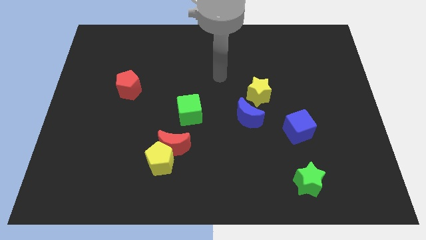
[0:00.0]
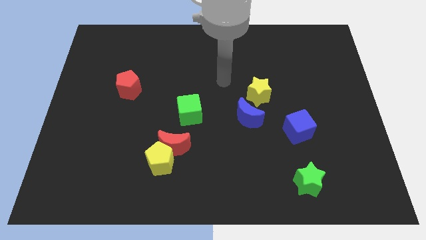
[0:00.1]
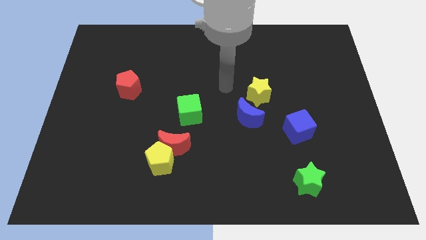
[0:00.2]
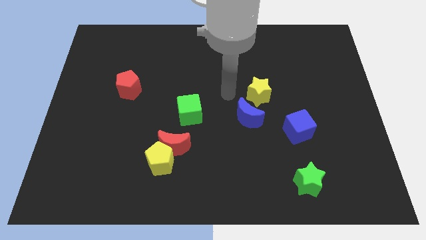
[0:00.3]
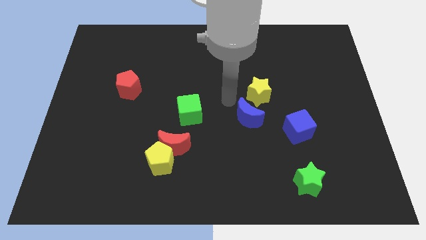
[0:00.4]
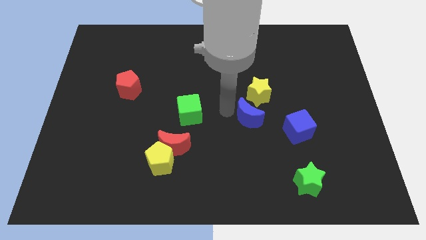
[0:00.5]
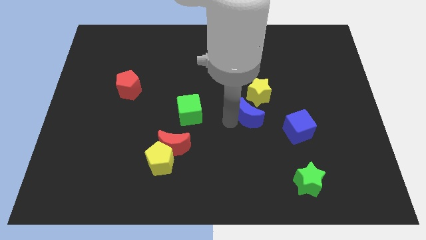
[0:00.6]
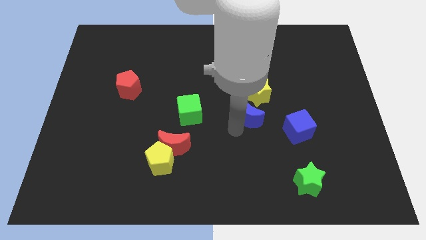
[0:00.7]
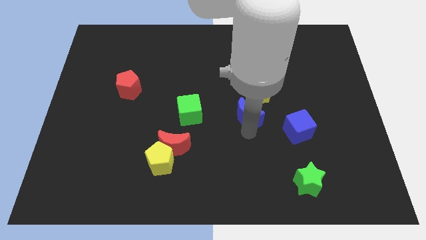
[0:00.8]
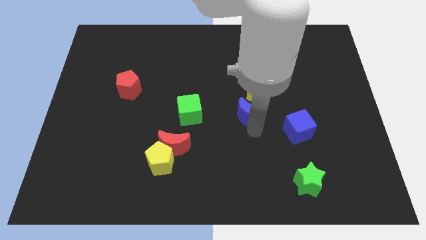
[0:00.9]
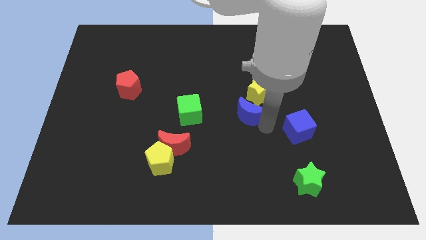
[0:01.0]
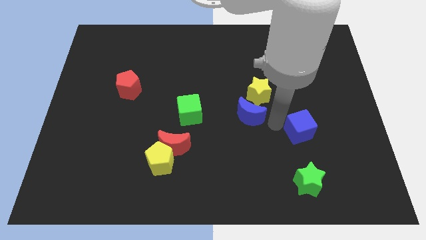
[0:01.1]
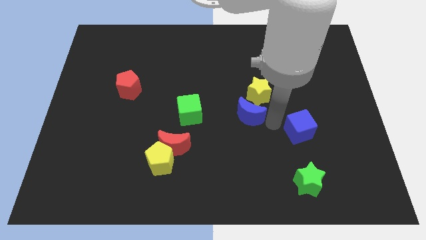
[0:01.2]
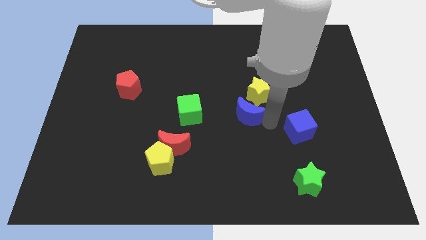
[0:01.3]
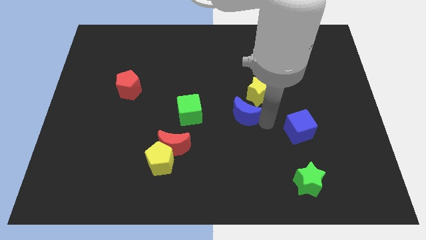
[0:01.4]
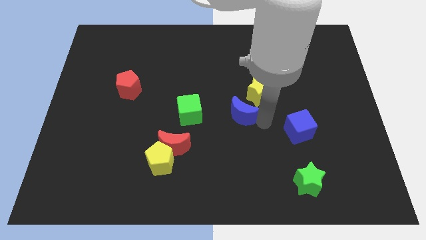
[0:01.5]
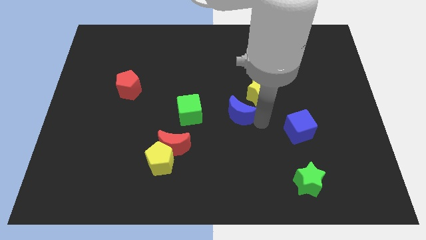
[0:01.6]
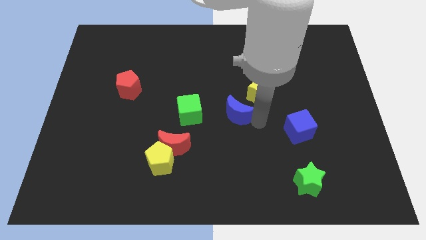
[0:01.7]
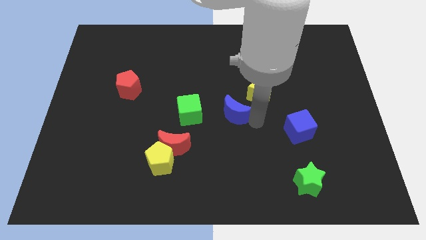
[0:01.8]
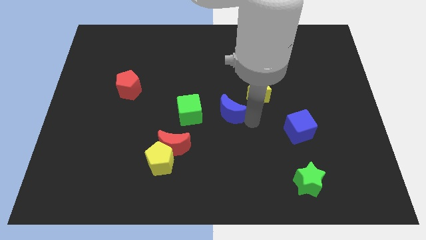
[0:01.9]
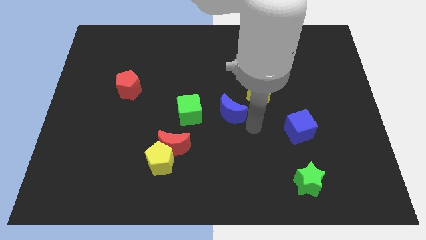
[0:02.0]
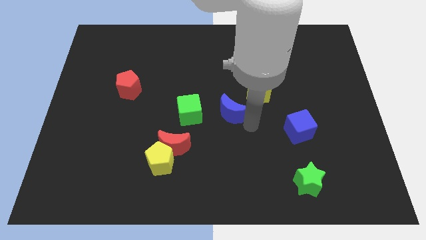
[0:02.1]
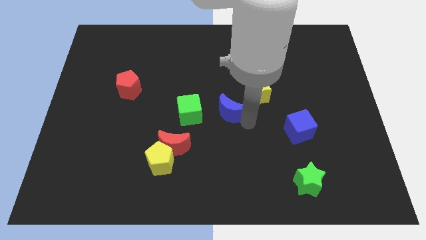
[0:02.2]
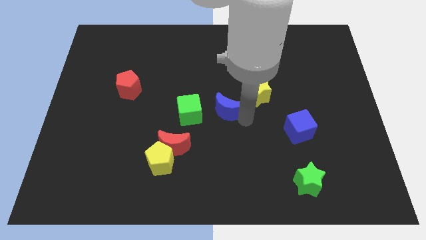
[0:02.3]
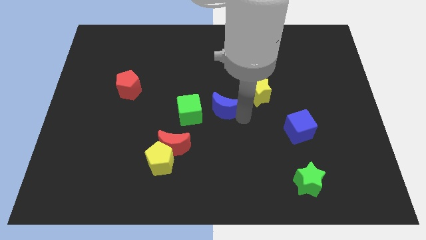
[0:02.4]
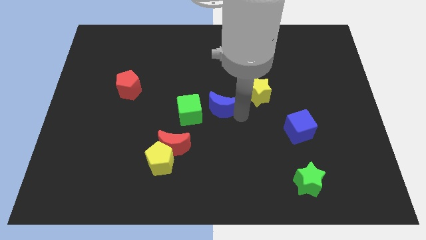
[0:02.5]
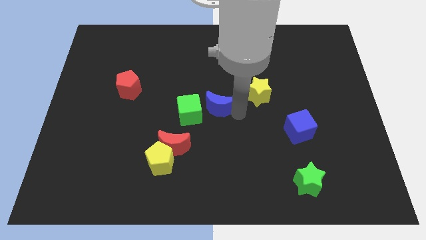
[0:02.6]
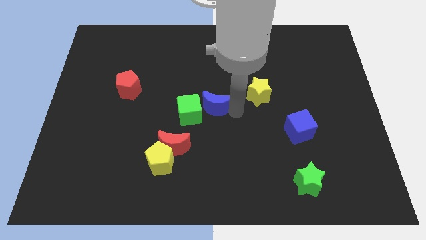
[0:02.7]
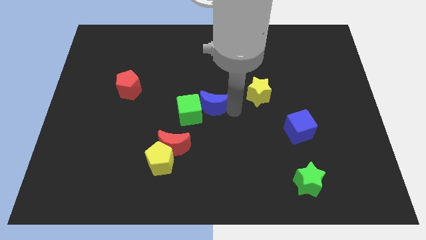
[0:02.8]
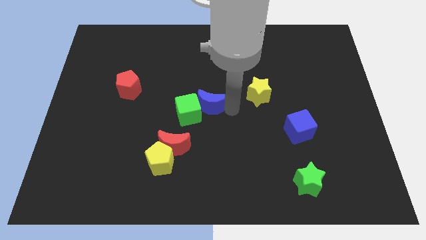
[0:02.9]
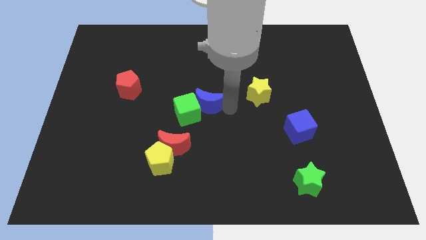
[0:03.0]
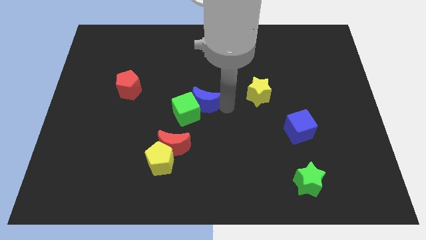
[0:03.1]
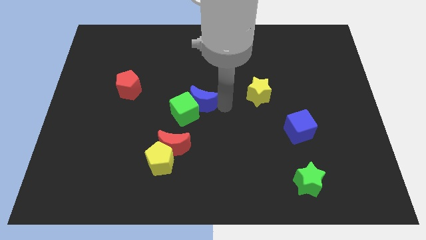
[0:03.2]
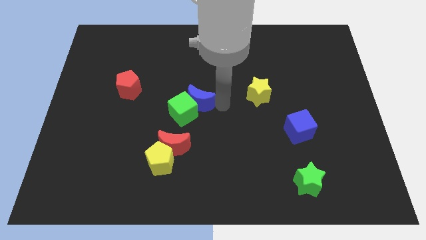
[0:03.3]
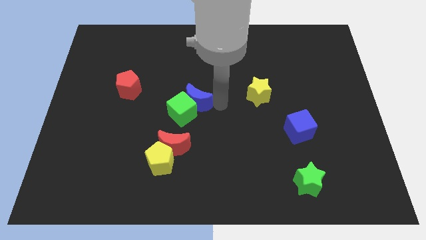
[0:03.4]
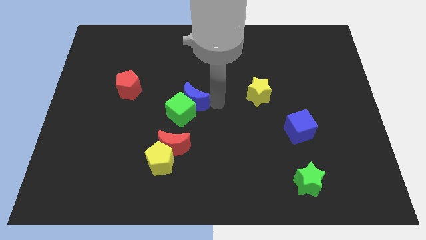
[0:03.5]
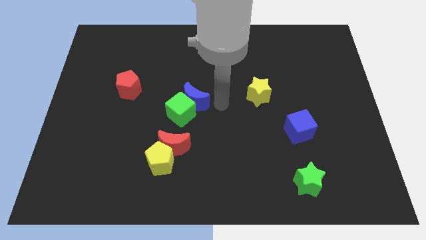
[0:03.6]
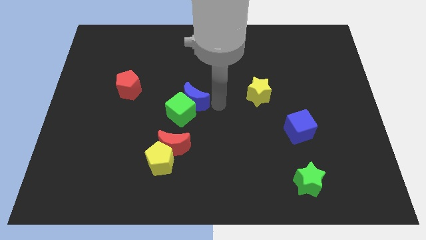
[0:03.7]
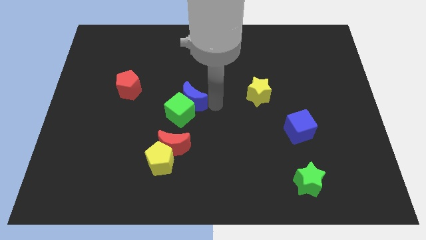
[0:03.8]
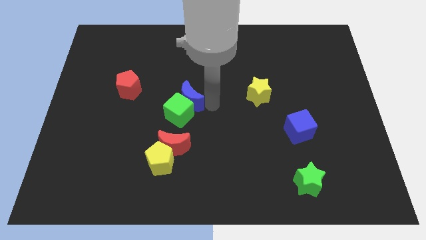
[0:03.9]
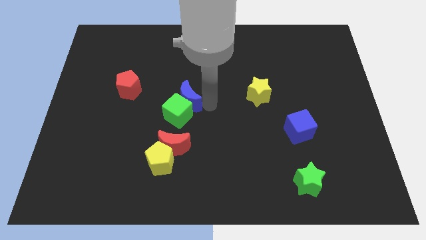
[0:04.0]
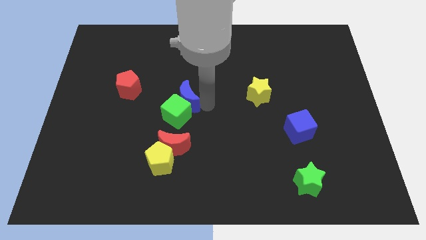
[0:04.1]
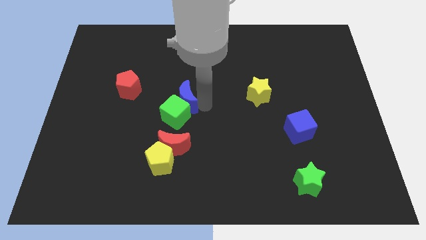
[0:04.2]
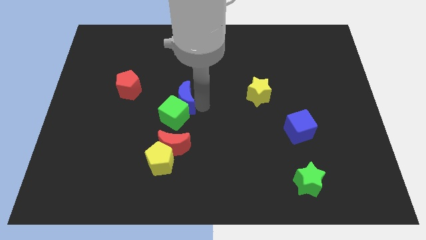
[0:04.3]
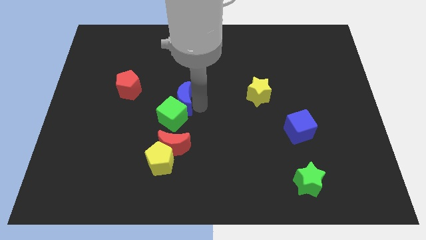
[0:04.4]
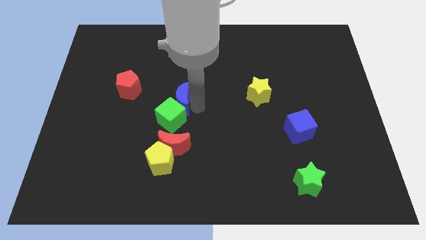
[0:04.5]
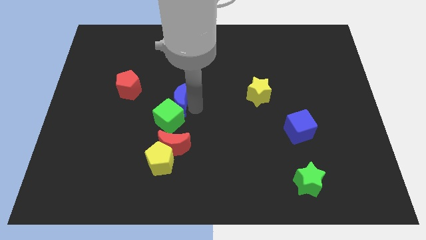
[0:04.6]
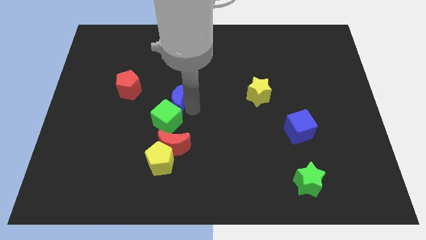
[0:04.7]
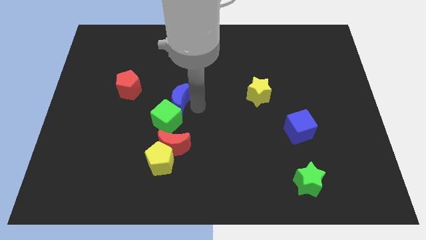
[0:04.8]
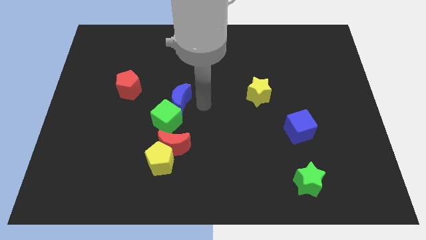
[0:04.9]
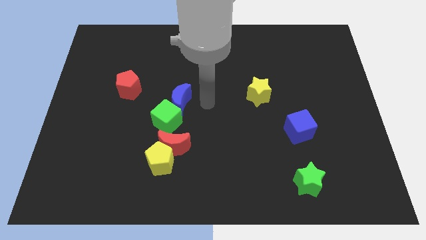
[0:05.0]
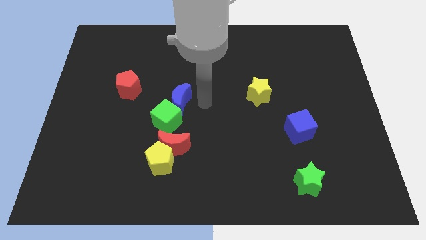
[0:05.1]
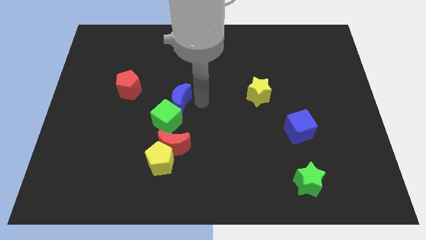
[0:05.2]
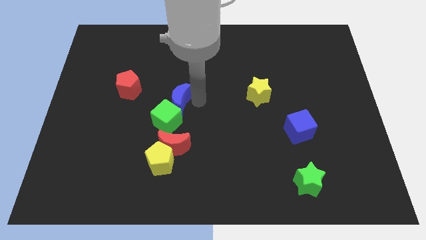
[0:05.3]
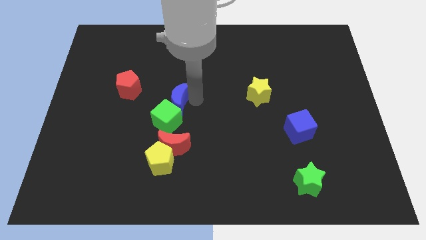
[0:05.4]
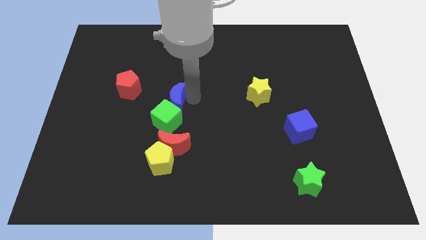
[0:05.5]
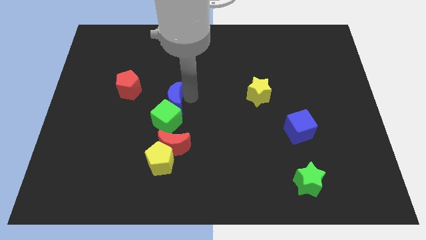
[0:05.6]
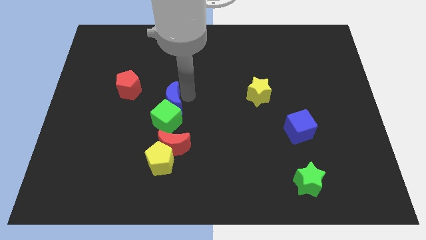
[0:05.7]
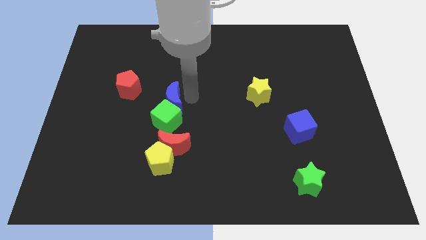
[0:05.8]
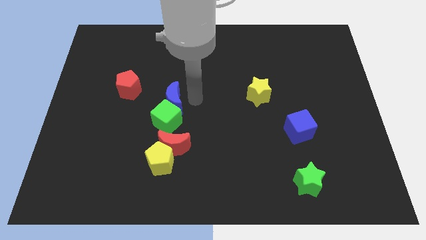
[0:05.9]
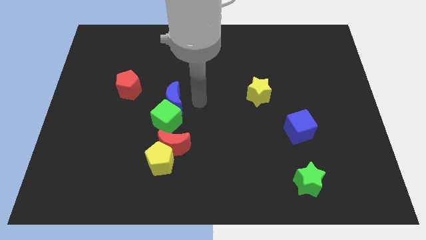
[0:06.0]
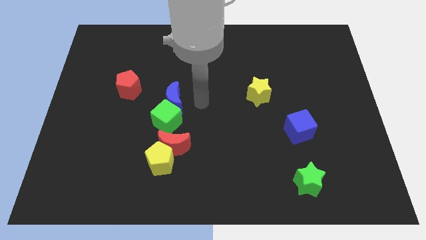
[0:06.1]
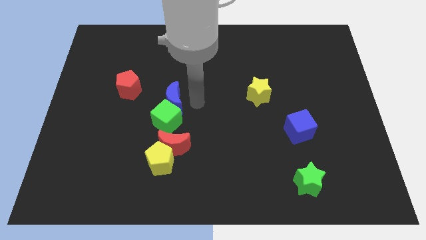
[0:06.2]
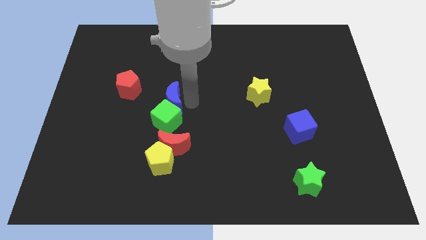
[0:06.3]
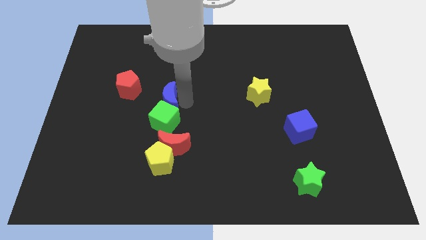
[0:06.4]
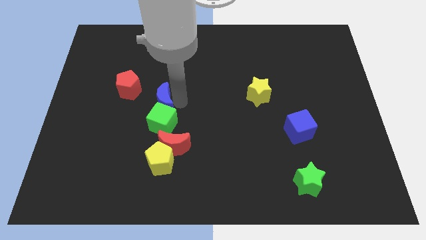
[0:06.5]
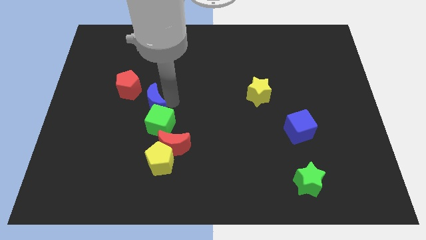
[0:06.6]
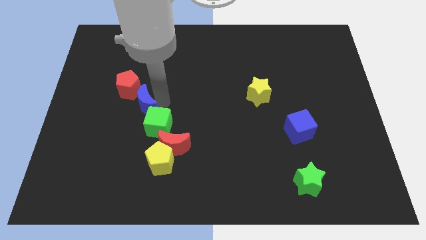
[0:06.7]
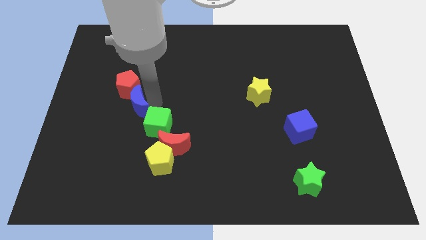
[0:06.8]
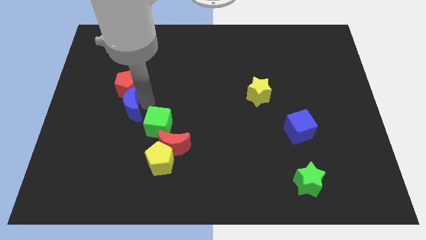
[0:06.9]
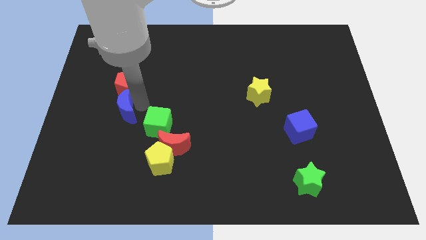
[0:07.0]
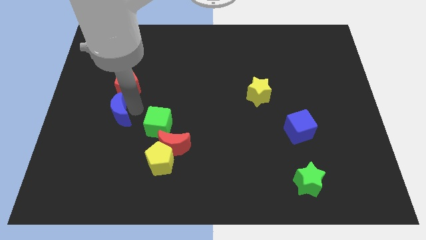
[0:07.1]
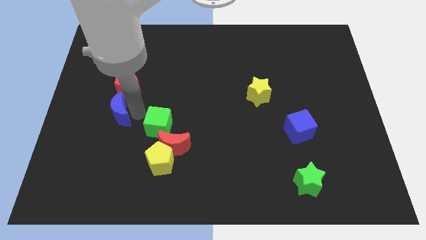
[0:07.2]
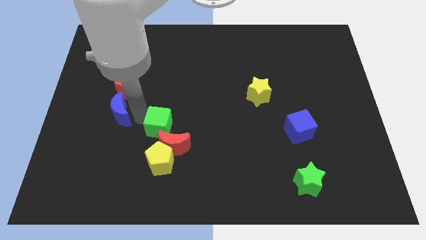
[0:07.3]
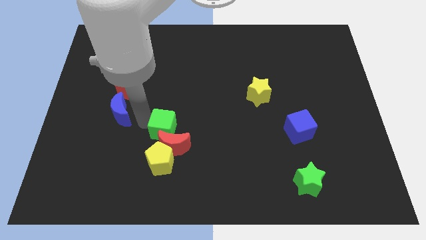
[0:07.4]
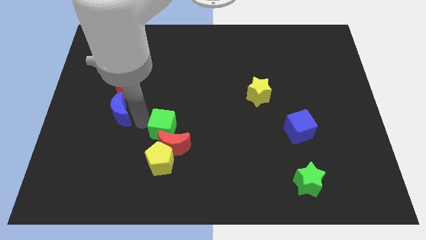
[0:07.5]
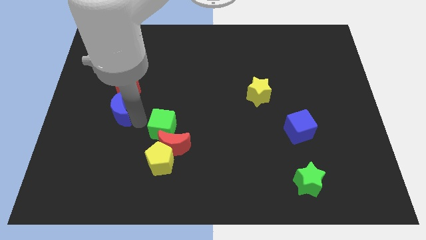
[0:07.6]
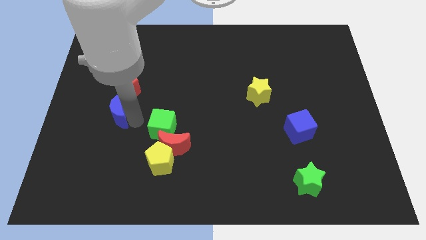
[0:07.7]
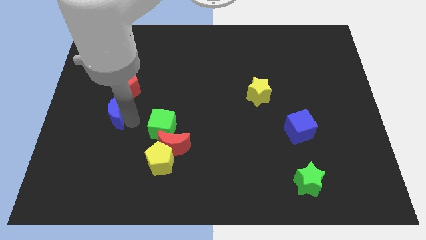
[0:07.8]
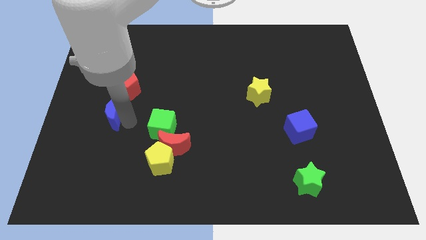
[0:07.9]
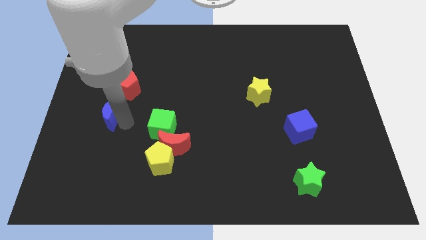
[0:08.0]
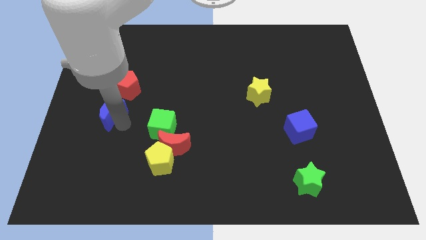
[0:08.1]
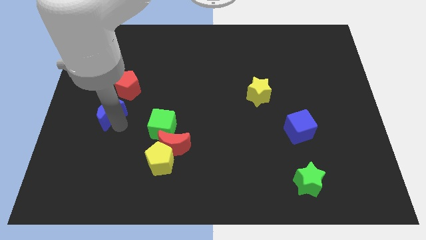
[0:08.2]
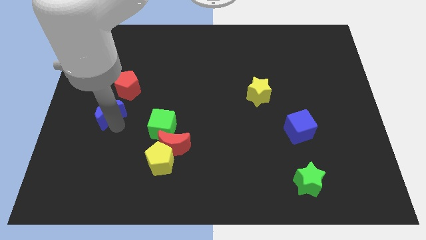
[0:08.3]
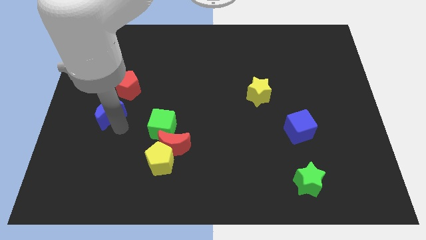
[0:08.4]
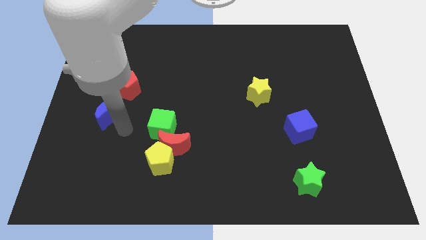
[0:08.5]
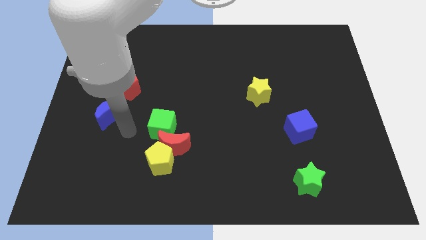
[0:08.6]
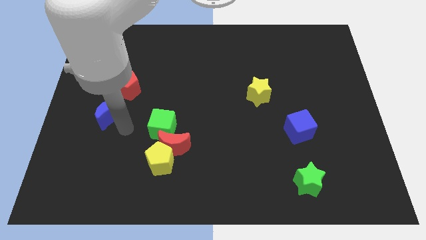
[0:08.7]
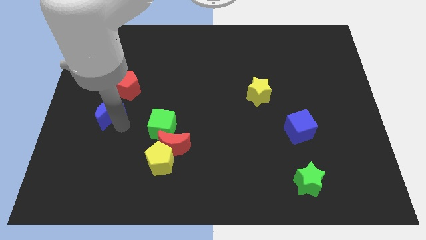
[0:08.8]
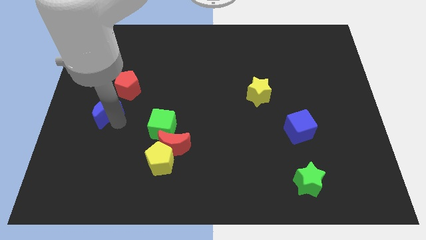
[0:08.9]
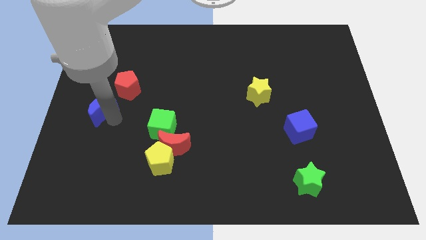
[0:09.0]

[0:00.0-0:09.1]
move the blue moon to the left side of the board
